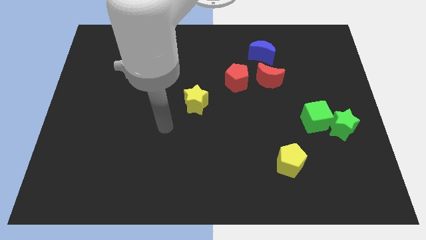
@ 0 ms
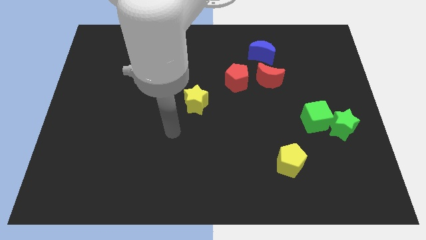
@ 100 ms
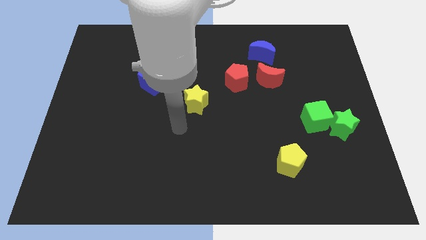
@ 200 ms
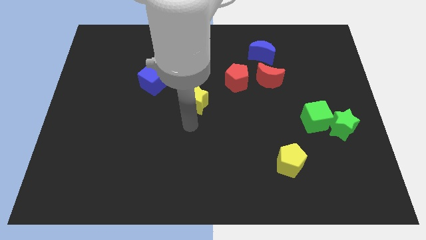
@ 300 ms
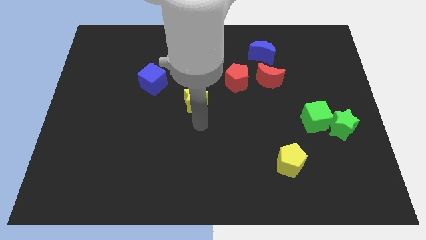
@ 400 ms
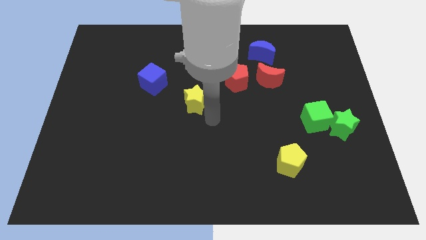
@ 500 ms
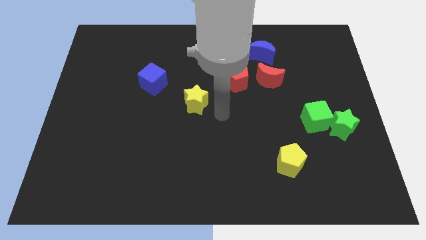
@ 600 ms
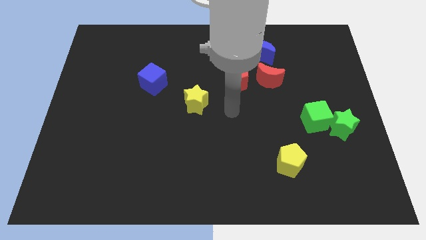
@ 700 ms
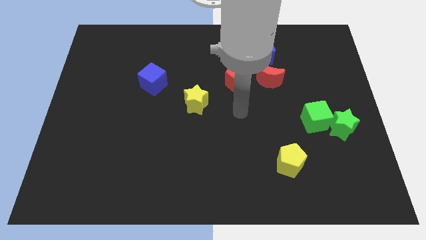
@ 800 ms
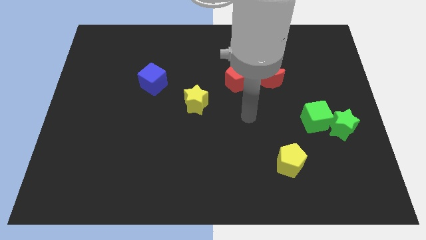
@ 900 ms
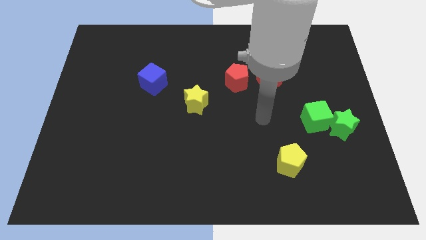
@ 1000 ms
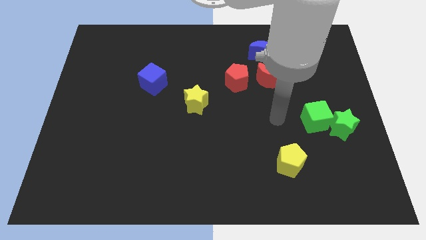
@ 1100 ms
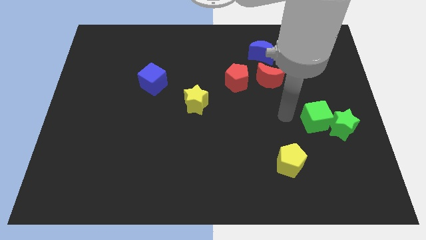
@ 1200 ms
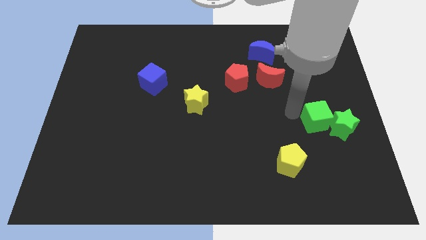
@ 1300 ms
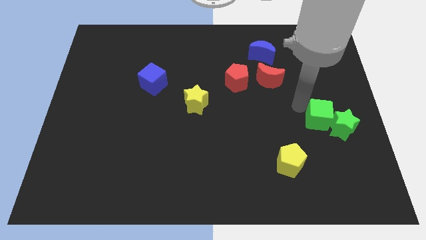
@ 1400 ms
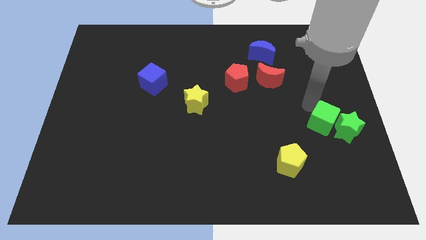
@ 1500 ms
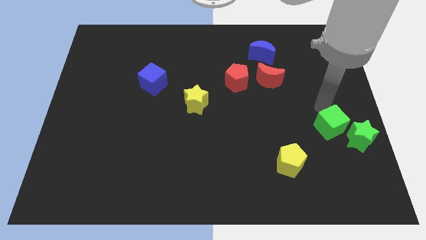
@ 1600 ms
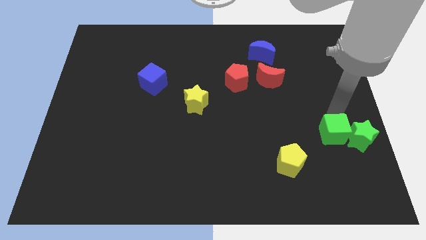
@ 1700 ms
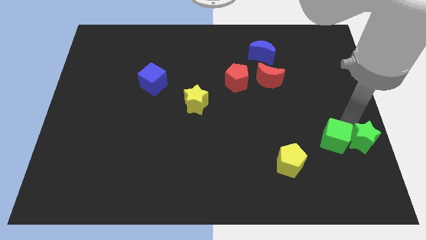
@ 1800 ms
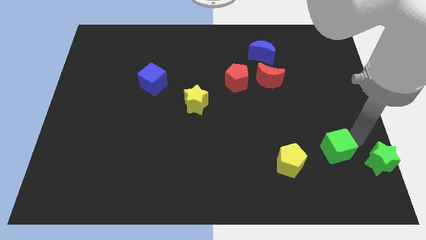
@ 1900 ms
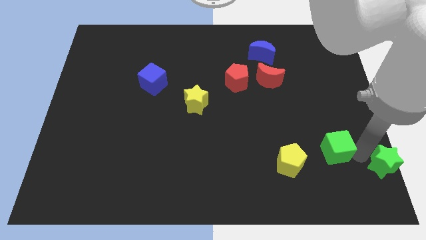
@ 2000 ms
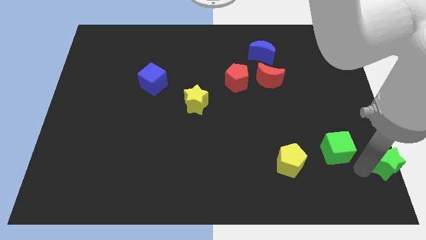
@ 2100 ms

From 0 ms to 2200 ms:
separate the green cube from the green star

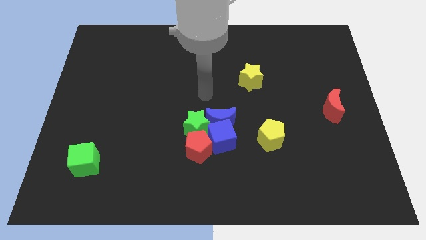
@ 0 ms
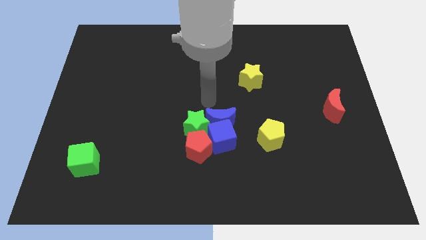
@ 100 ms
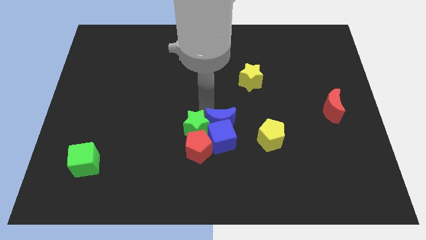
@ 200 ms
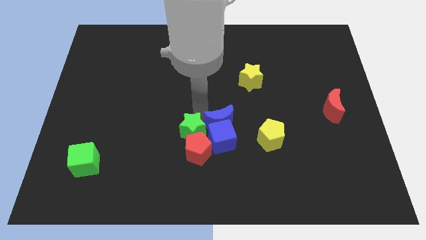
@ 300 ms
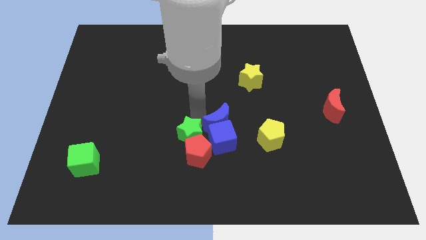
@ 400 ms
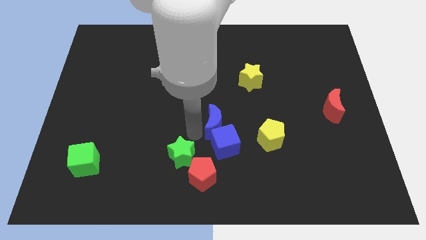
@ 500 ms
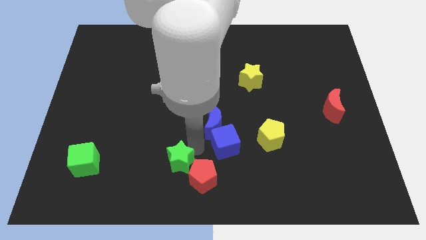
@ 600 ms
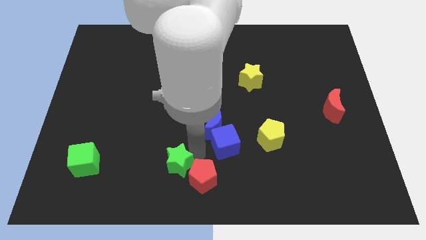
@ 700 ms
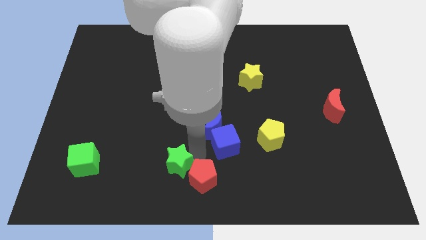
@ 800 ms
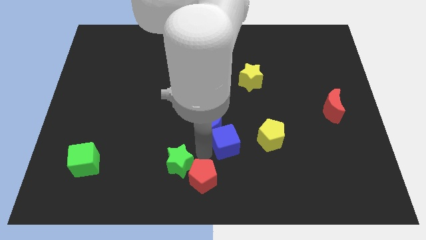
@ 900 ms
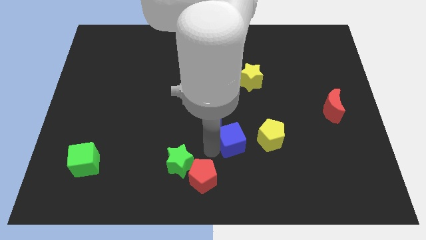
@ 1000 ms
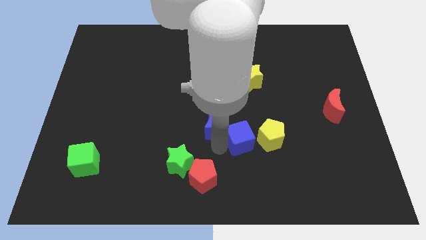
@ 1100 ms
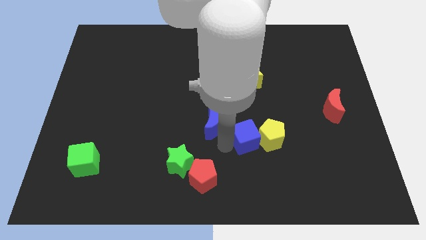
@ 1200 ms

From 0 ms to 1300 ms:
move the blue cube away from the blue moon, red pentagon, and green star

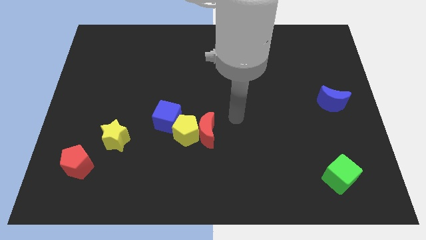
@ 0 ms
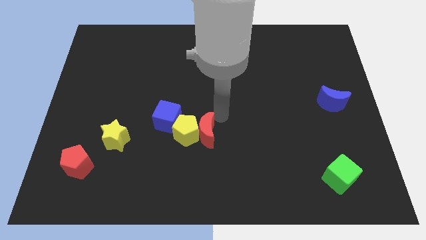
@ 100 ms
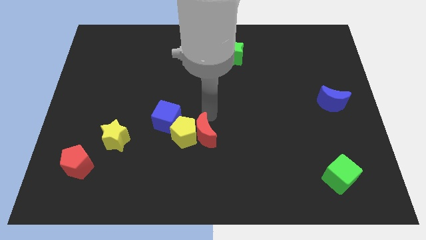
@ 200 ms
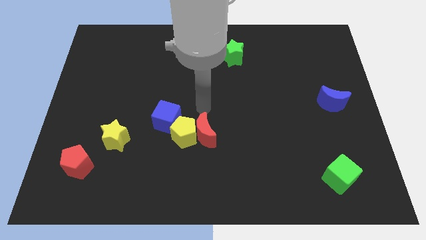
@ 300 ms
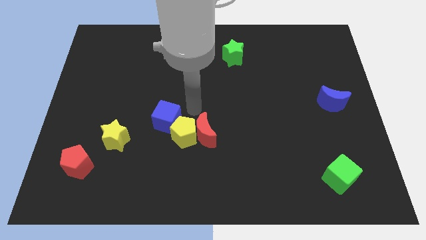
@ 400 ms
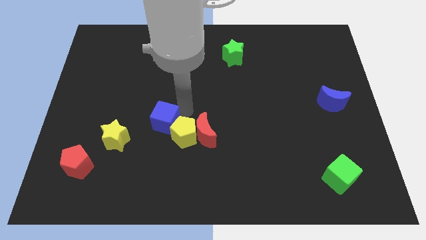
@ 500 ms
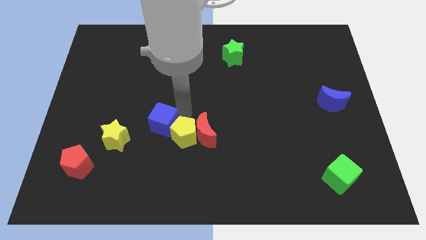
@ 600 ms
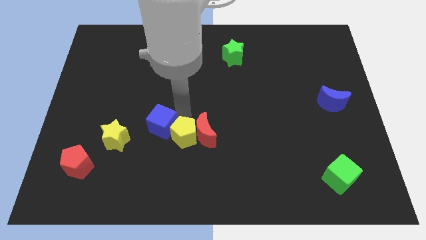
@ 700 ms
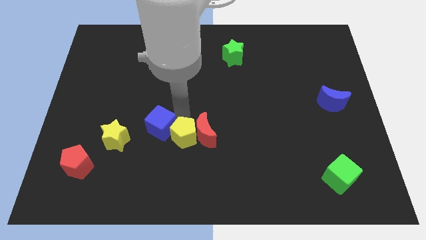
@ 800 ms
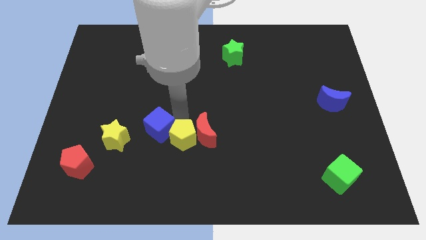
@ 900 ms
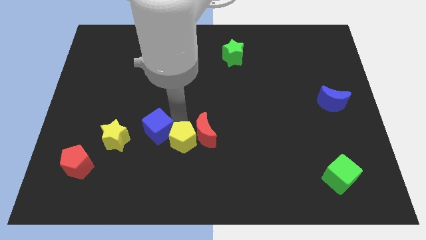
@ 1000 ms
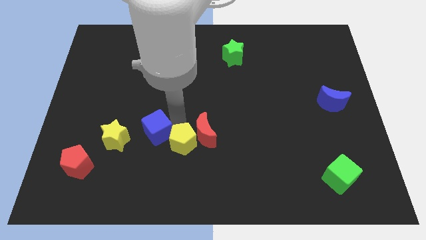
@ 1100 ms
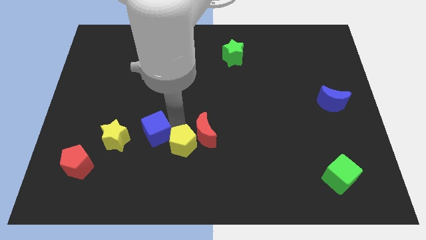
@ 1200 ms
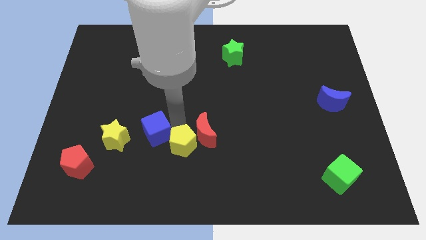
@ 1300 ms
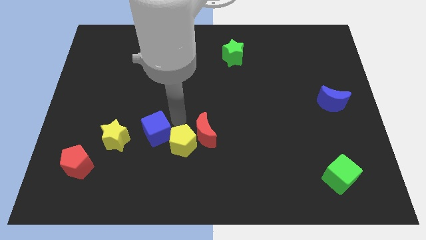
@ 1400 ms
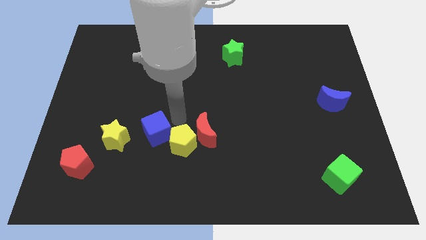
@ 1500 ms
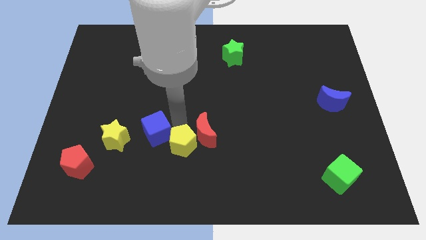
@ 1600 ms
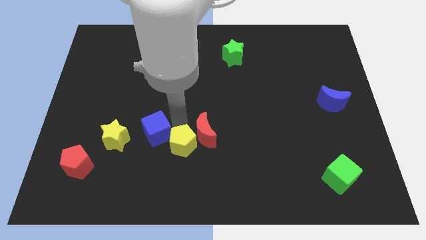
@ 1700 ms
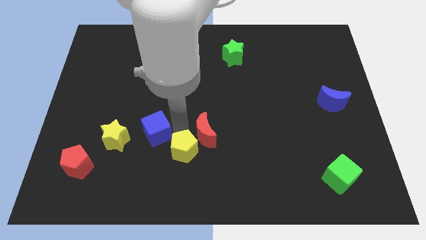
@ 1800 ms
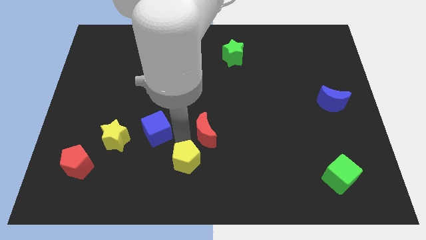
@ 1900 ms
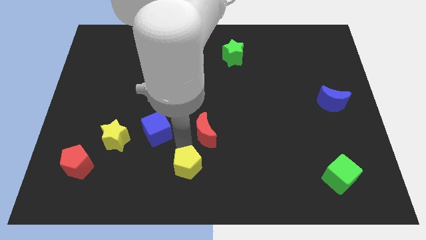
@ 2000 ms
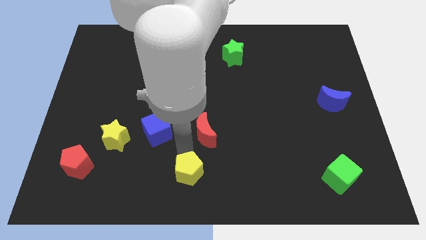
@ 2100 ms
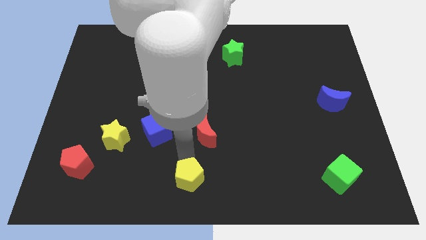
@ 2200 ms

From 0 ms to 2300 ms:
move the yellow pentagon away from the red moon and blue cube

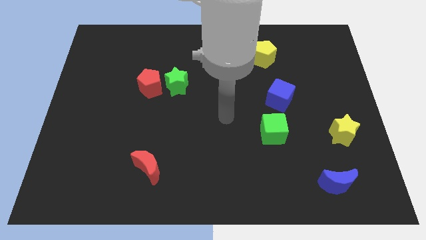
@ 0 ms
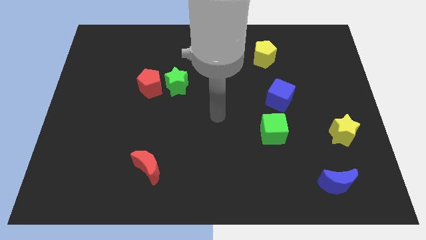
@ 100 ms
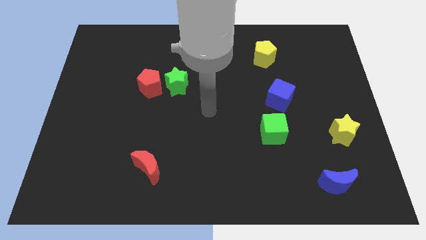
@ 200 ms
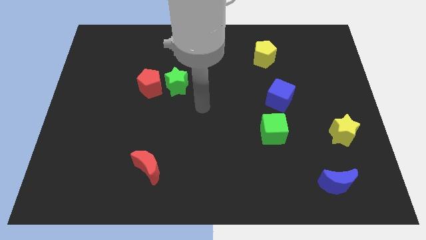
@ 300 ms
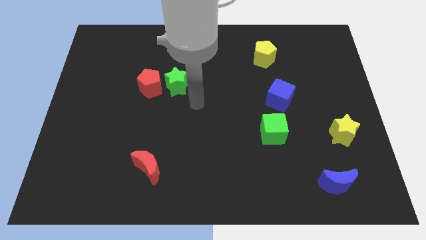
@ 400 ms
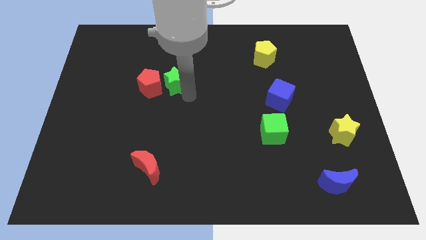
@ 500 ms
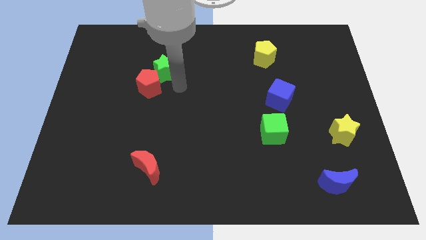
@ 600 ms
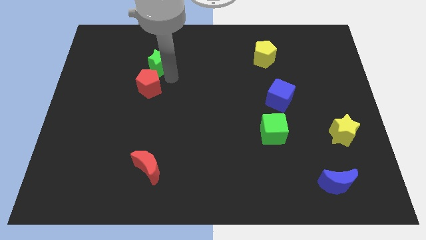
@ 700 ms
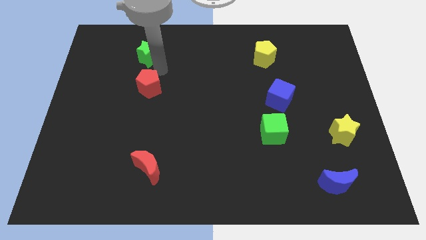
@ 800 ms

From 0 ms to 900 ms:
pull the red pentagon apart from the green star

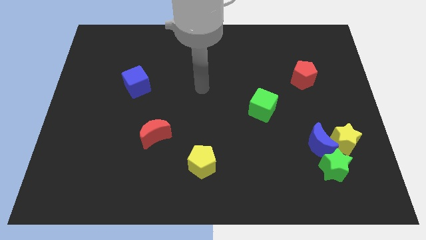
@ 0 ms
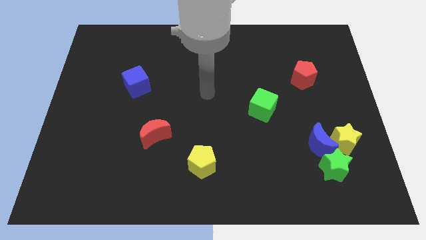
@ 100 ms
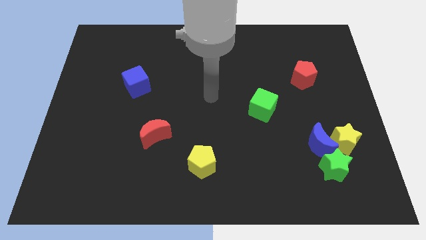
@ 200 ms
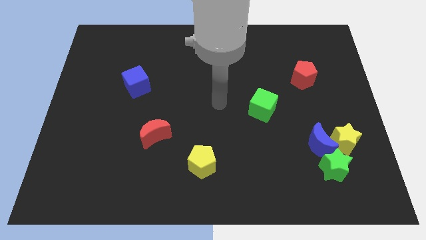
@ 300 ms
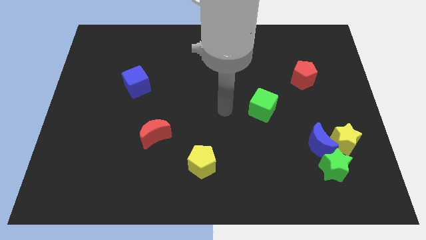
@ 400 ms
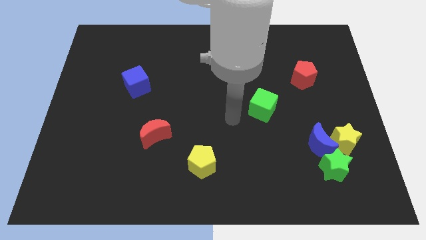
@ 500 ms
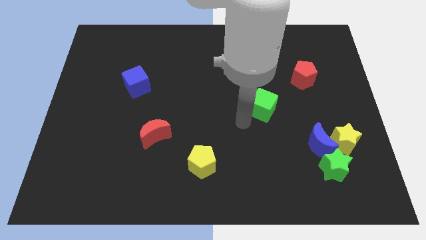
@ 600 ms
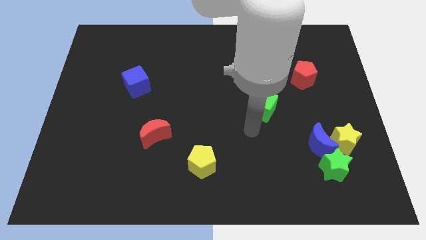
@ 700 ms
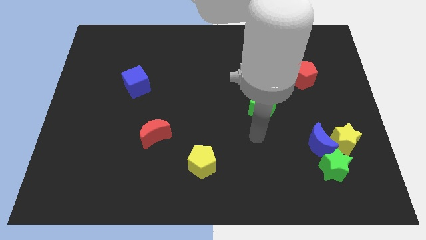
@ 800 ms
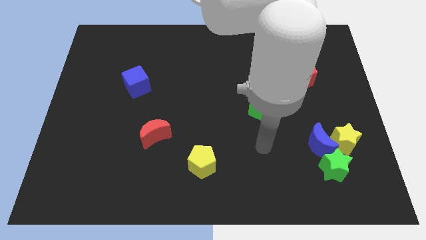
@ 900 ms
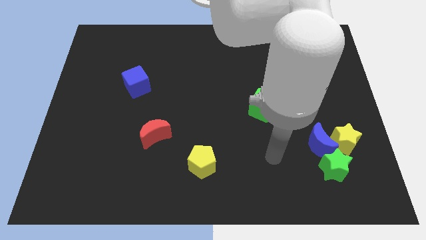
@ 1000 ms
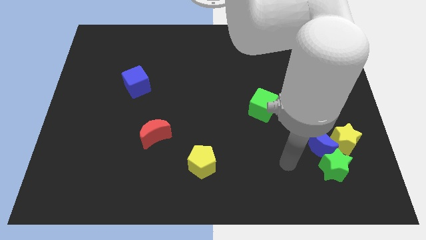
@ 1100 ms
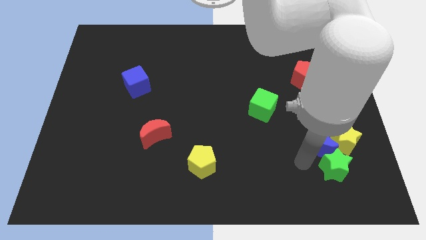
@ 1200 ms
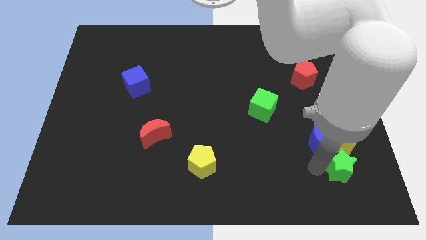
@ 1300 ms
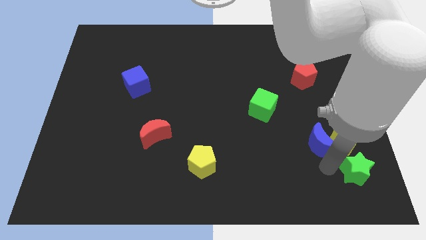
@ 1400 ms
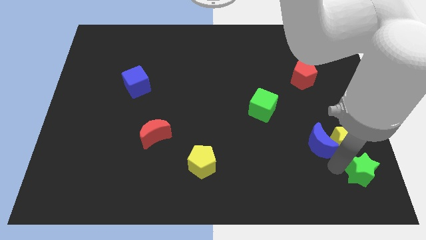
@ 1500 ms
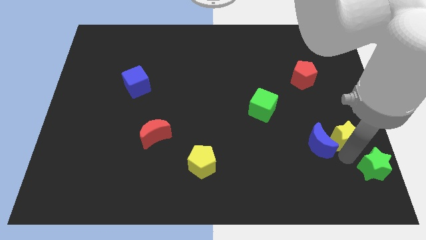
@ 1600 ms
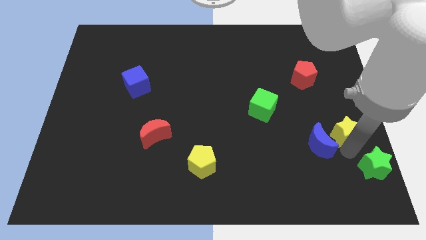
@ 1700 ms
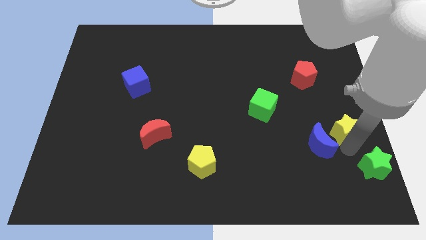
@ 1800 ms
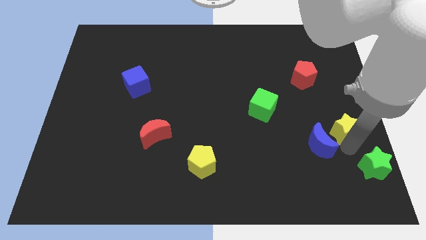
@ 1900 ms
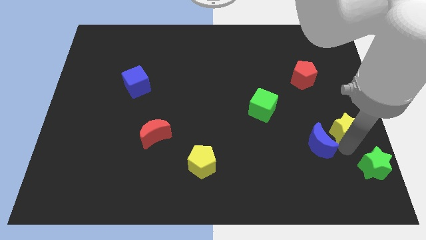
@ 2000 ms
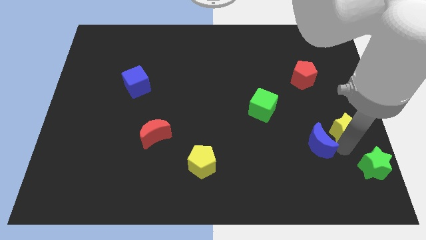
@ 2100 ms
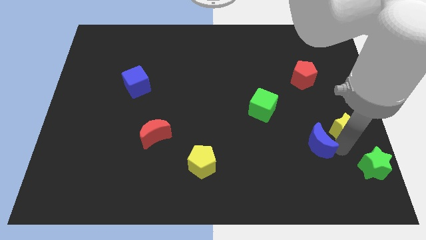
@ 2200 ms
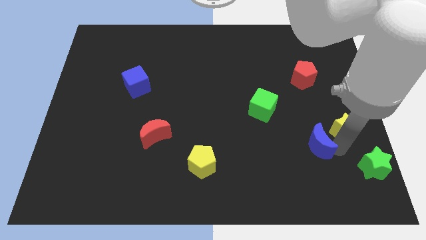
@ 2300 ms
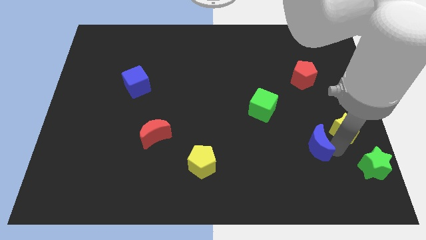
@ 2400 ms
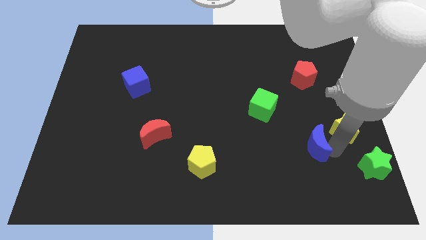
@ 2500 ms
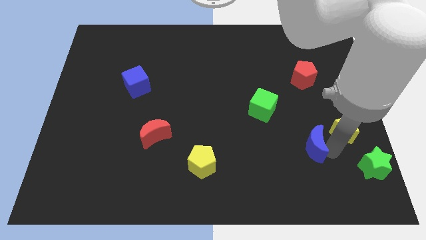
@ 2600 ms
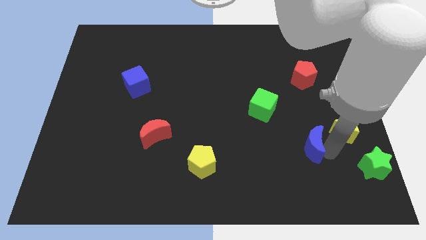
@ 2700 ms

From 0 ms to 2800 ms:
pull the blue moon apart from the yellow star and green star
